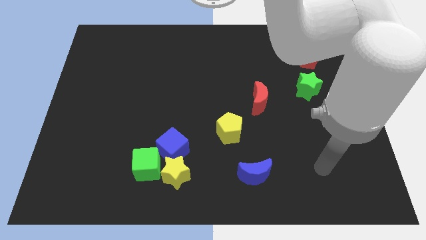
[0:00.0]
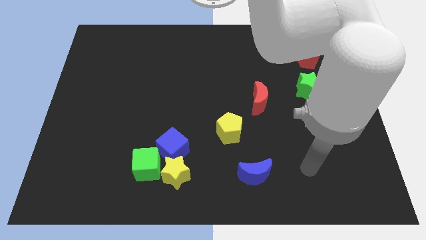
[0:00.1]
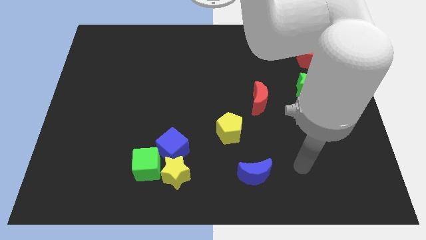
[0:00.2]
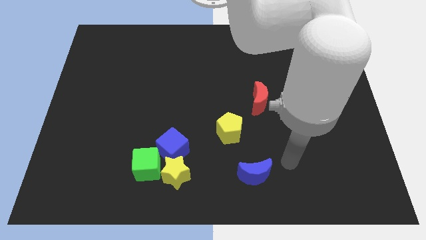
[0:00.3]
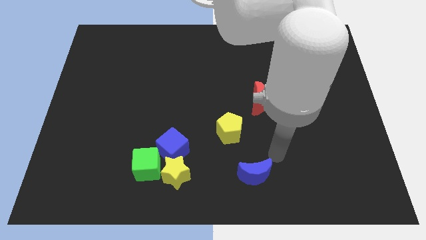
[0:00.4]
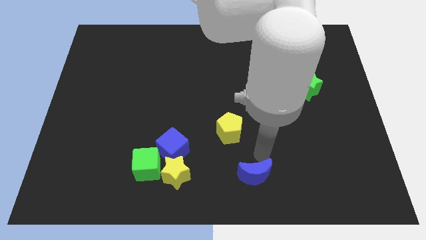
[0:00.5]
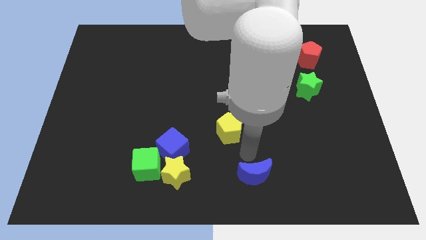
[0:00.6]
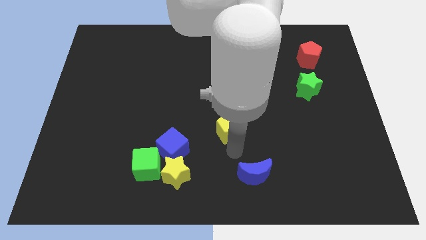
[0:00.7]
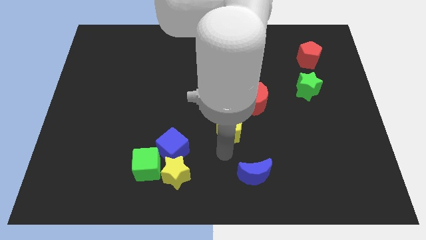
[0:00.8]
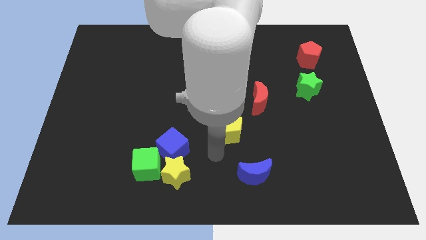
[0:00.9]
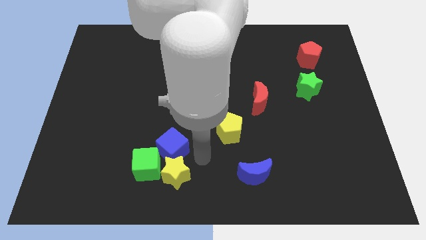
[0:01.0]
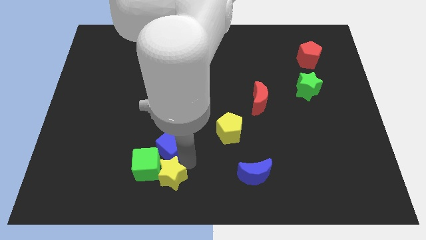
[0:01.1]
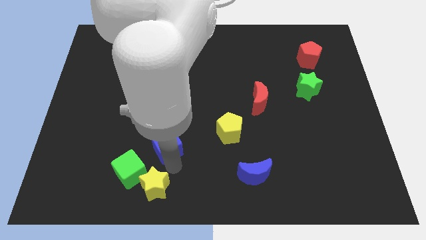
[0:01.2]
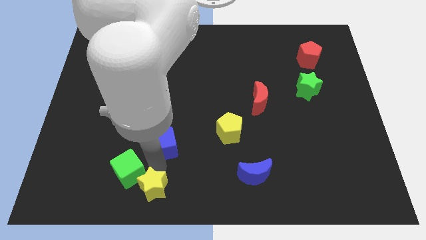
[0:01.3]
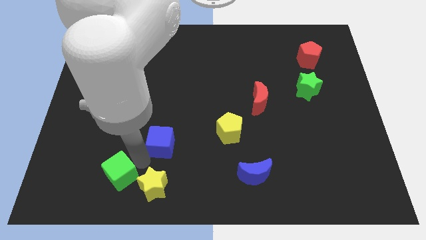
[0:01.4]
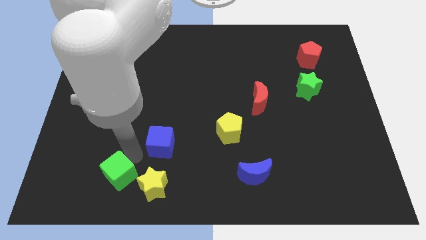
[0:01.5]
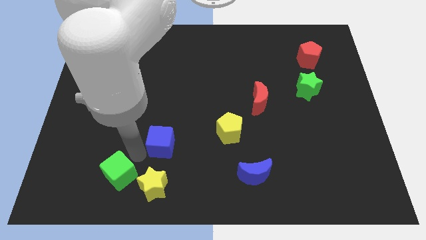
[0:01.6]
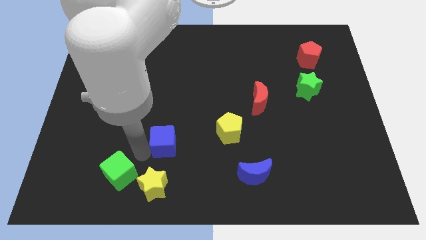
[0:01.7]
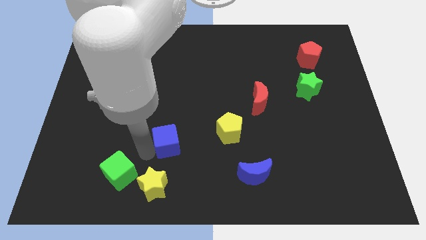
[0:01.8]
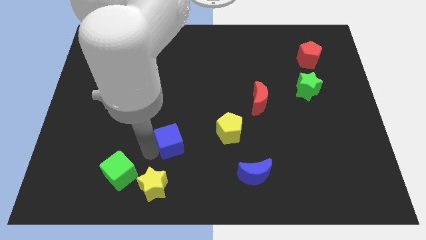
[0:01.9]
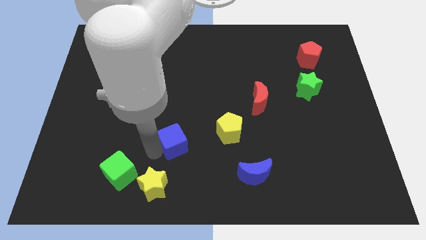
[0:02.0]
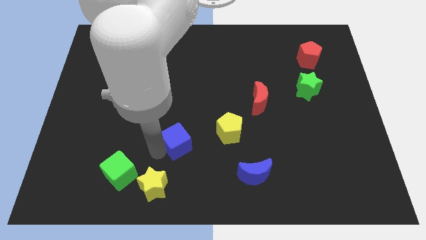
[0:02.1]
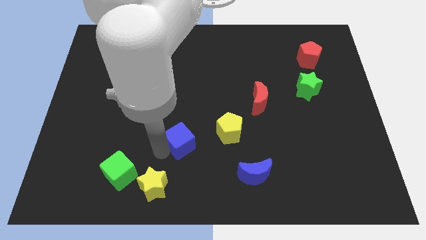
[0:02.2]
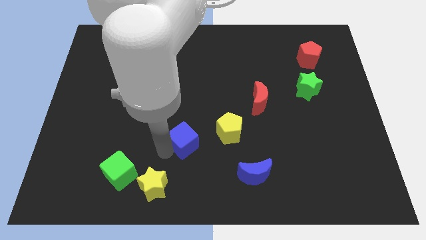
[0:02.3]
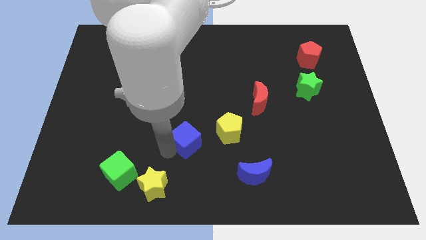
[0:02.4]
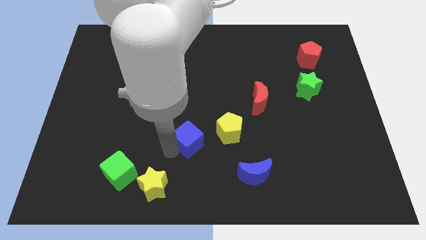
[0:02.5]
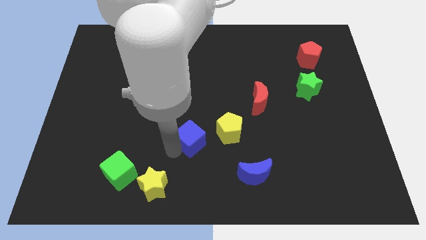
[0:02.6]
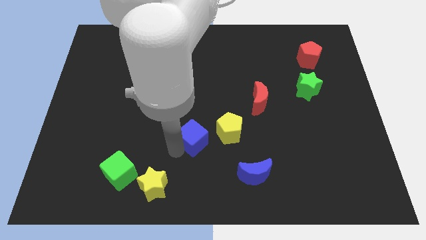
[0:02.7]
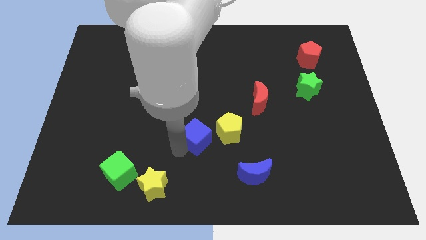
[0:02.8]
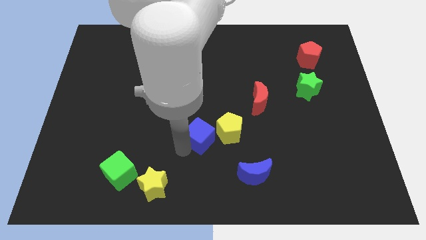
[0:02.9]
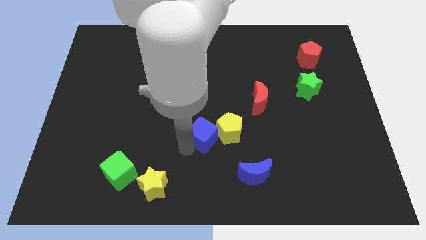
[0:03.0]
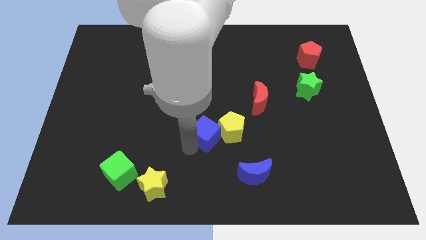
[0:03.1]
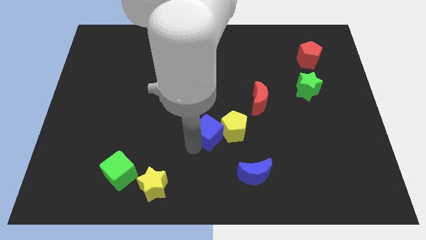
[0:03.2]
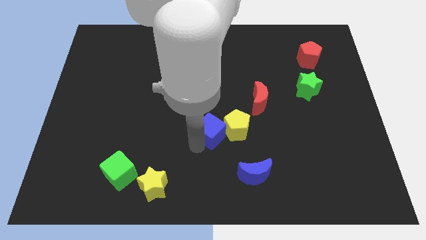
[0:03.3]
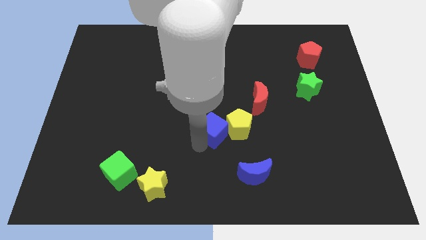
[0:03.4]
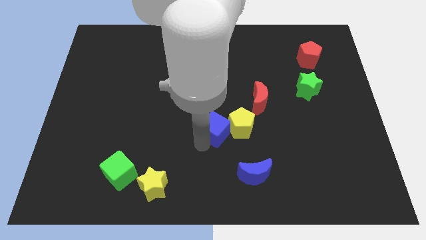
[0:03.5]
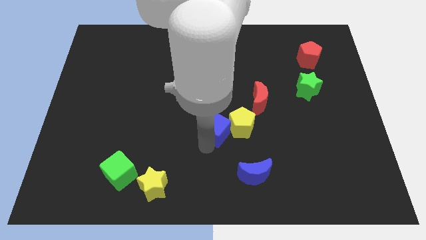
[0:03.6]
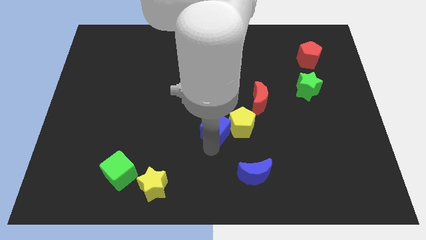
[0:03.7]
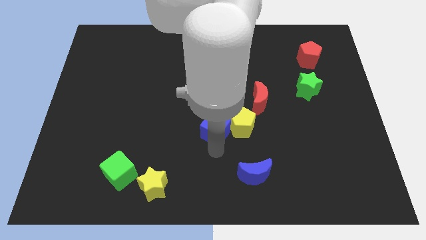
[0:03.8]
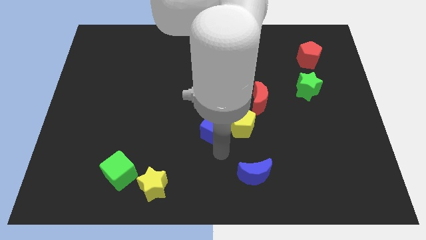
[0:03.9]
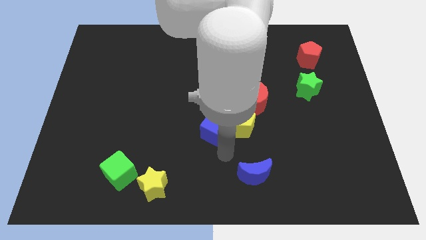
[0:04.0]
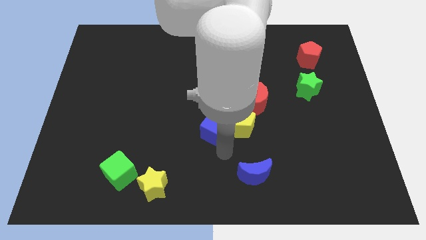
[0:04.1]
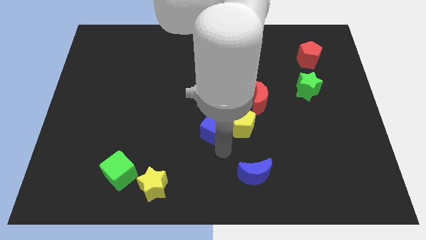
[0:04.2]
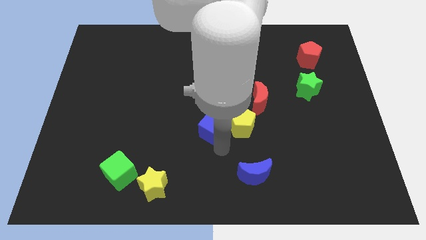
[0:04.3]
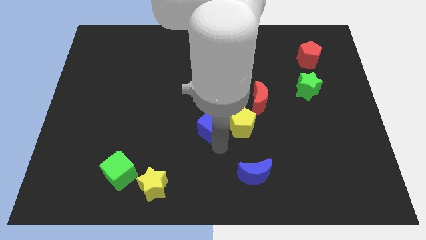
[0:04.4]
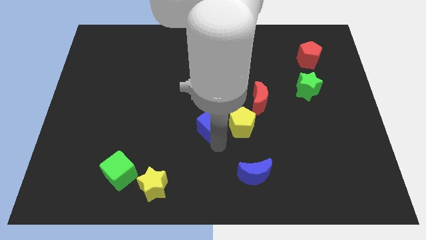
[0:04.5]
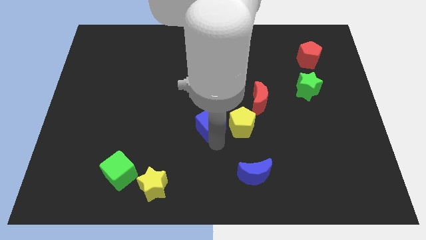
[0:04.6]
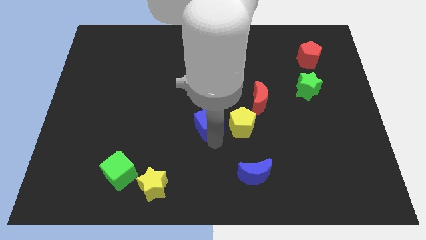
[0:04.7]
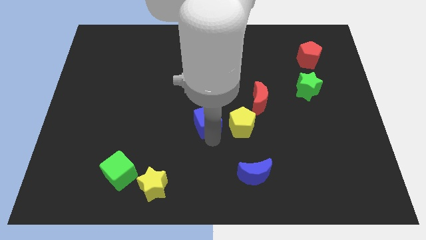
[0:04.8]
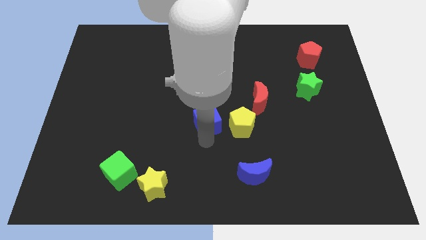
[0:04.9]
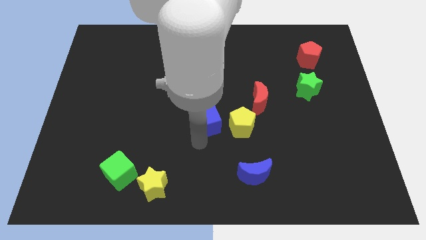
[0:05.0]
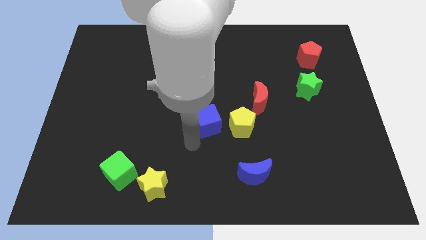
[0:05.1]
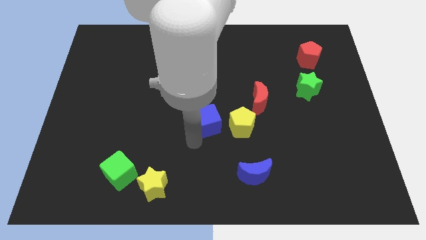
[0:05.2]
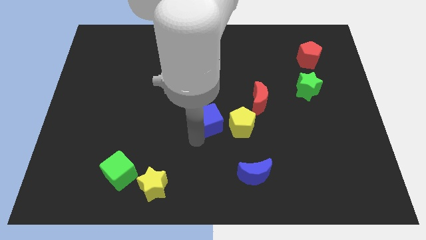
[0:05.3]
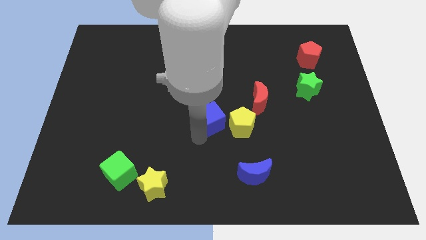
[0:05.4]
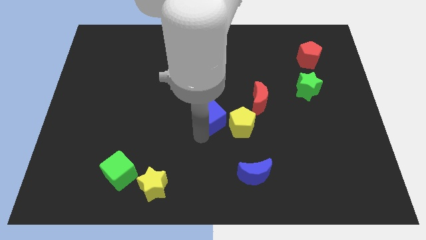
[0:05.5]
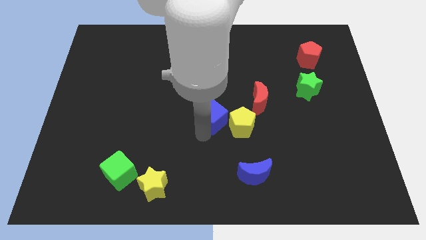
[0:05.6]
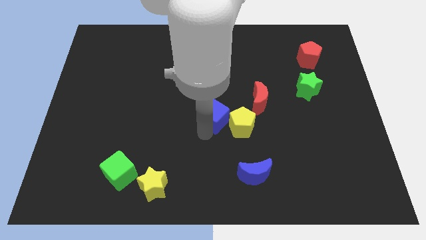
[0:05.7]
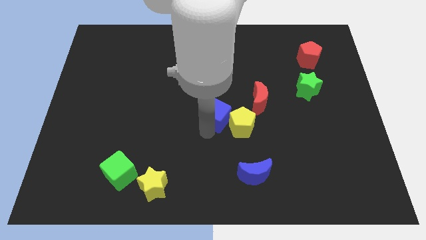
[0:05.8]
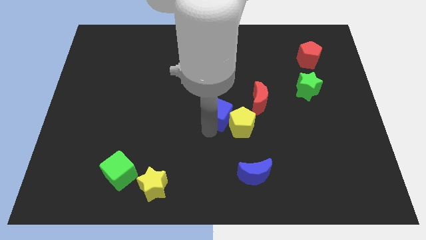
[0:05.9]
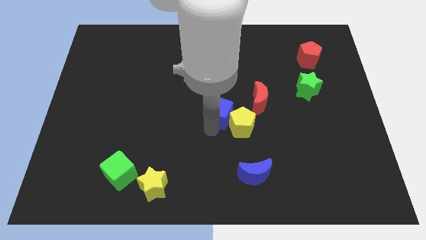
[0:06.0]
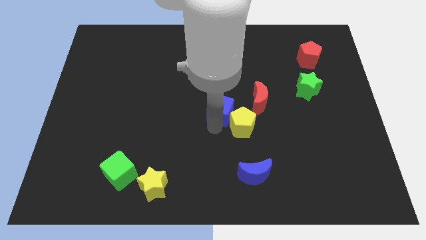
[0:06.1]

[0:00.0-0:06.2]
push the blue cube above the yellow pentagon

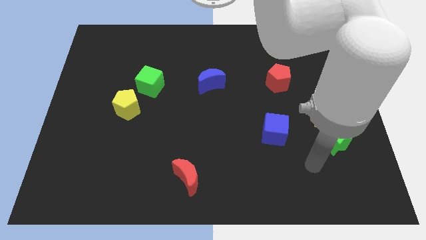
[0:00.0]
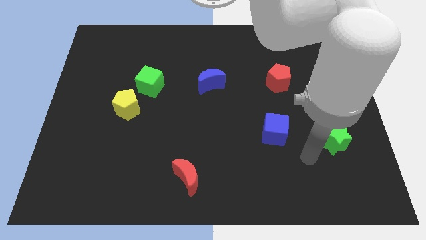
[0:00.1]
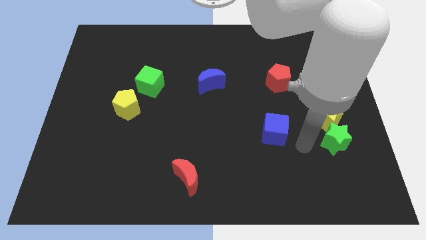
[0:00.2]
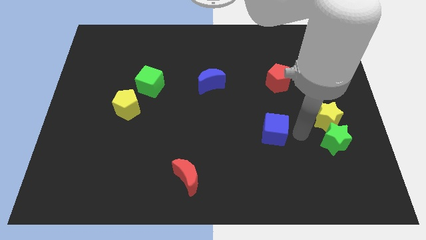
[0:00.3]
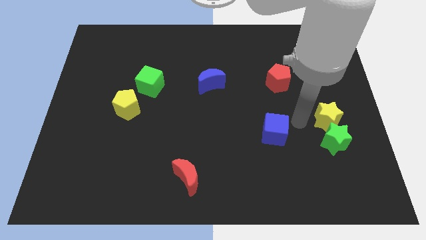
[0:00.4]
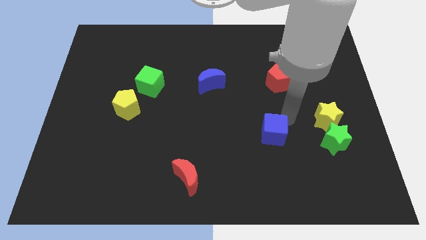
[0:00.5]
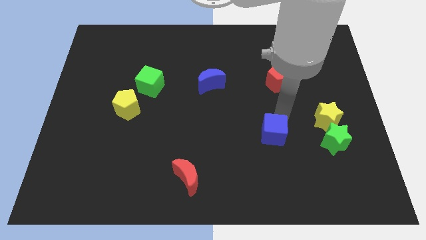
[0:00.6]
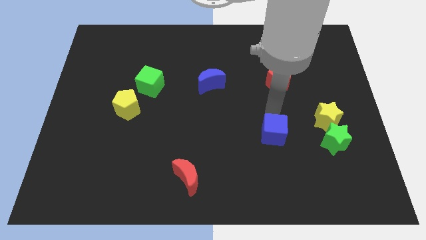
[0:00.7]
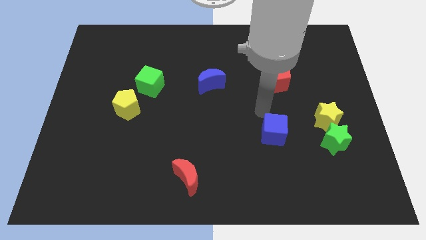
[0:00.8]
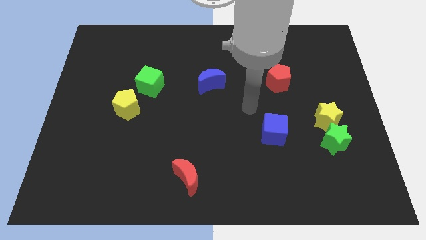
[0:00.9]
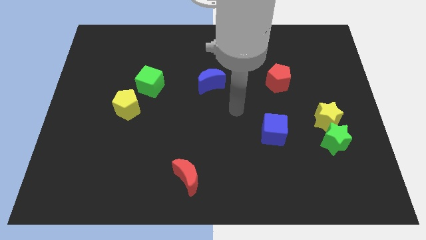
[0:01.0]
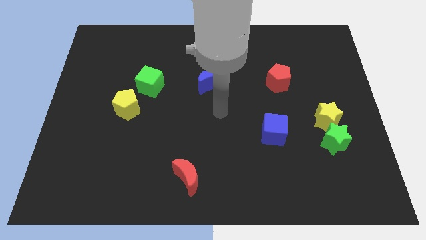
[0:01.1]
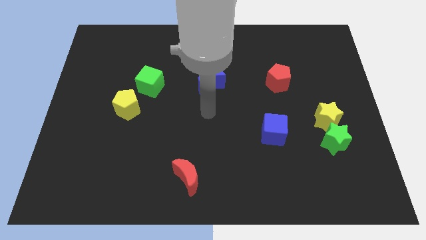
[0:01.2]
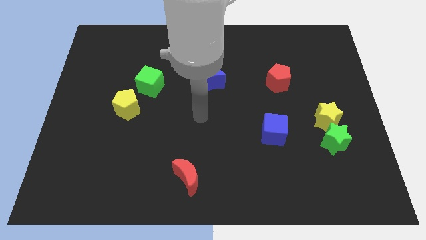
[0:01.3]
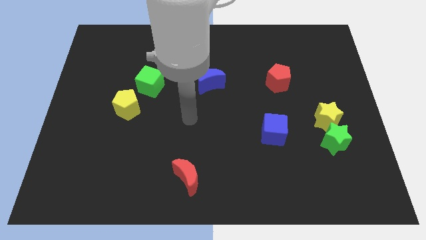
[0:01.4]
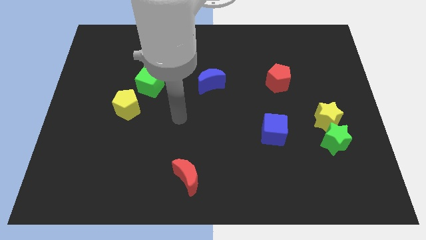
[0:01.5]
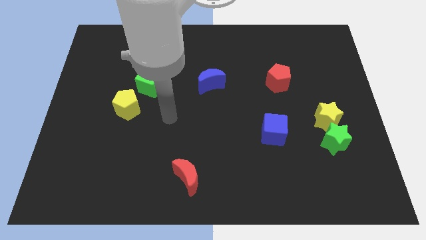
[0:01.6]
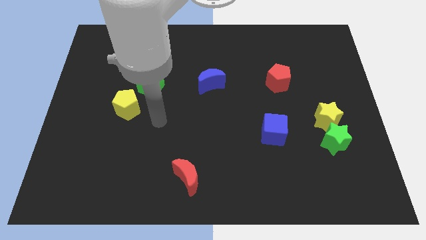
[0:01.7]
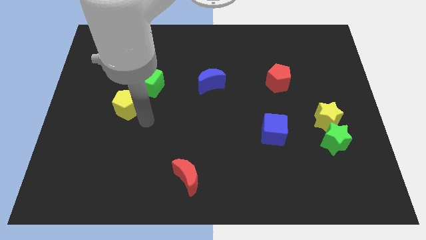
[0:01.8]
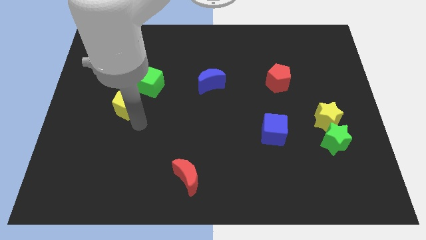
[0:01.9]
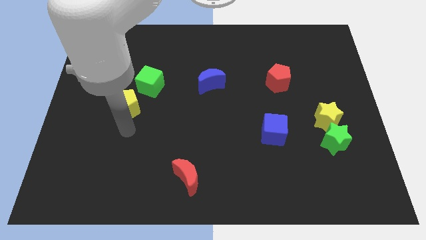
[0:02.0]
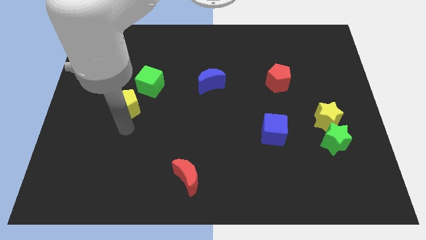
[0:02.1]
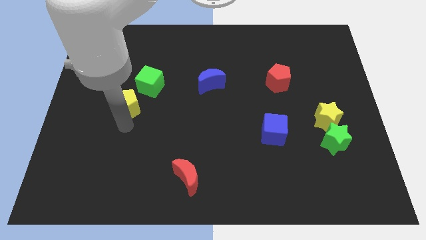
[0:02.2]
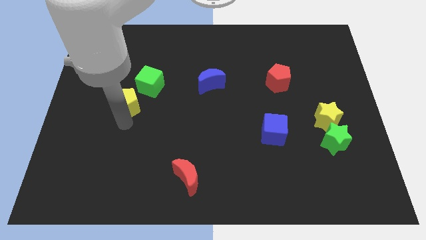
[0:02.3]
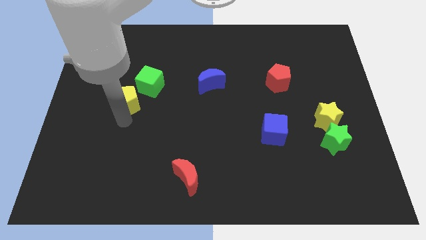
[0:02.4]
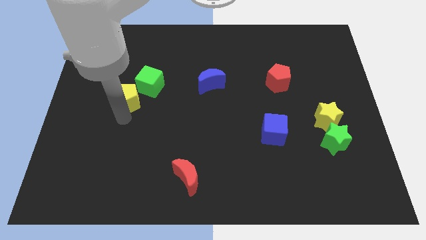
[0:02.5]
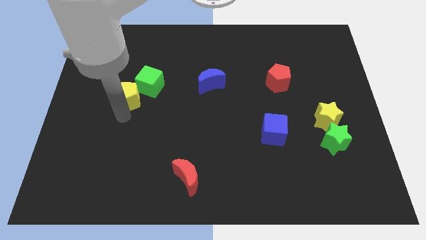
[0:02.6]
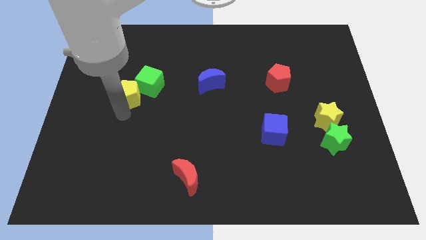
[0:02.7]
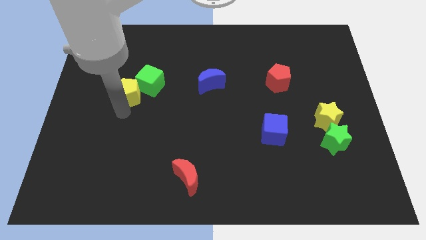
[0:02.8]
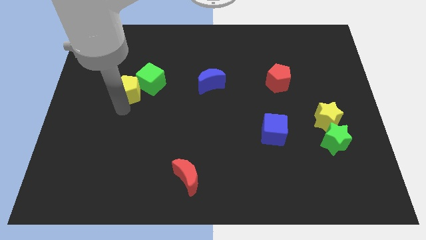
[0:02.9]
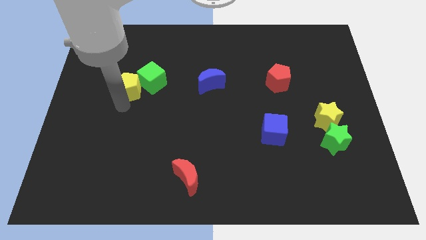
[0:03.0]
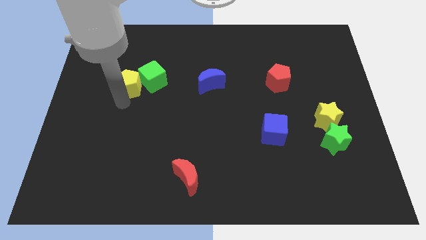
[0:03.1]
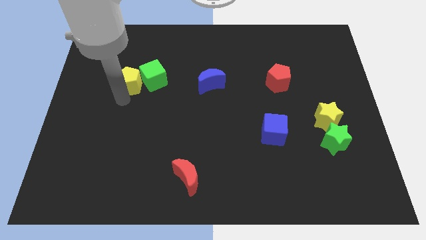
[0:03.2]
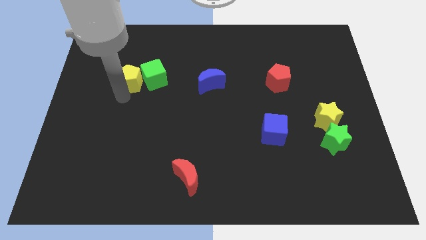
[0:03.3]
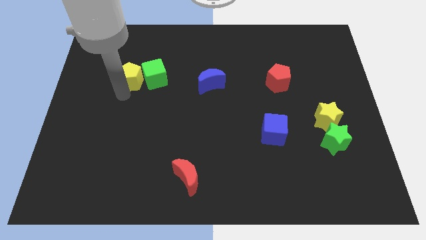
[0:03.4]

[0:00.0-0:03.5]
move the yellow pentagon diagonally up and to the left of the green cube
